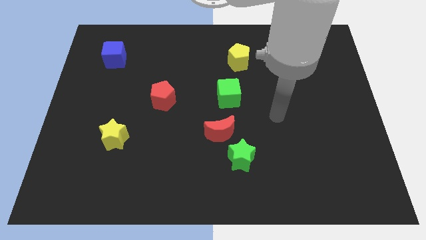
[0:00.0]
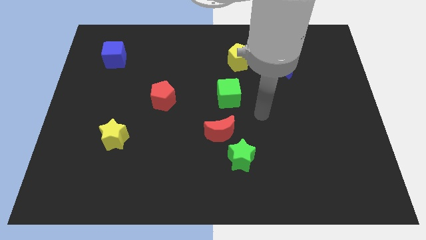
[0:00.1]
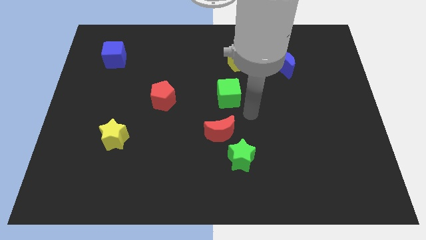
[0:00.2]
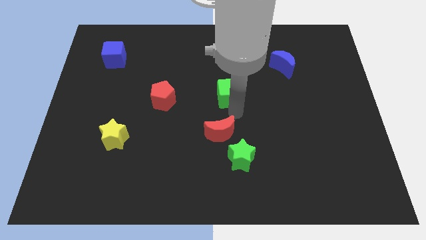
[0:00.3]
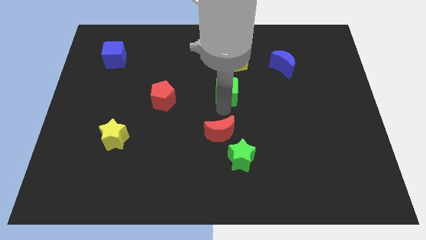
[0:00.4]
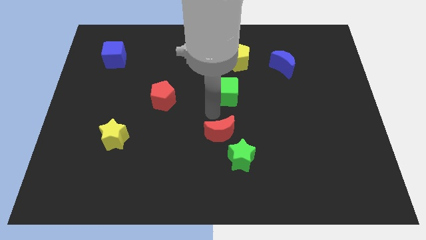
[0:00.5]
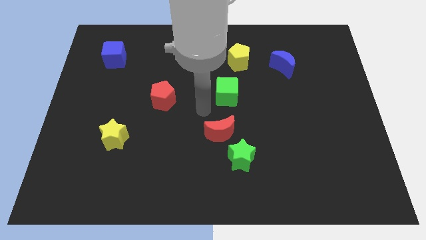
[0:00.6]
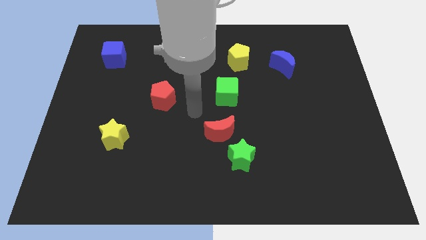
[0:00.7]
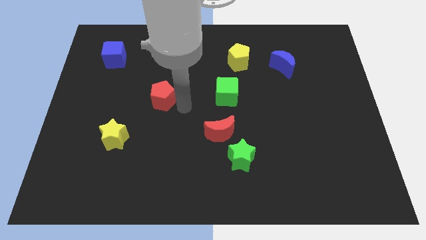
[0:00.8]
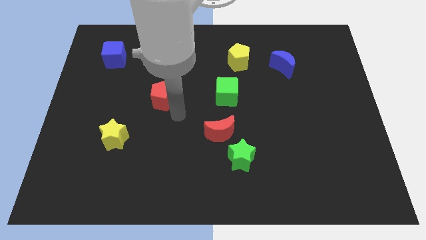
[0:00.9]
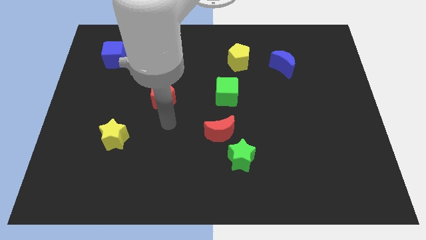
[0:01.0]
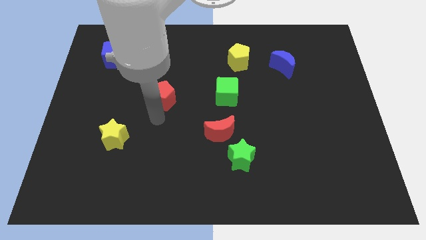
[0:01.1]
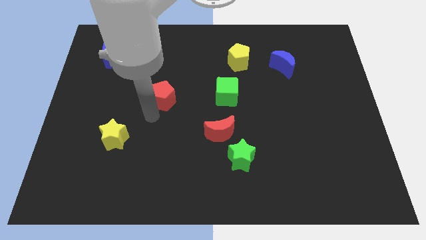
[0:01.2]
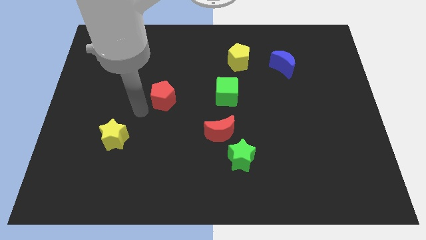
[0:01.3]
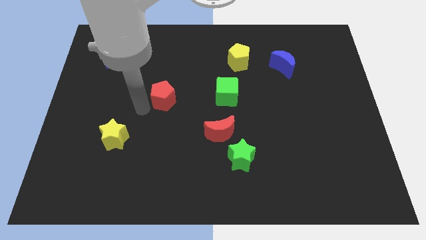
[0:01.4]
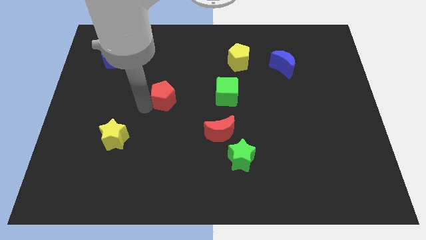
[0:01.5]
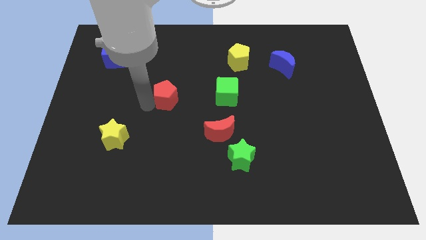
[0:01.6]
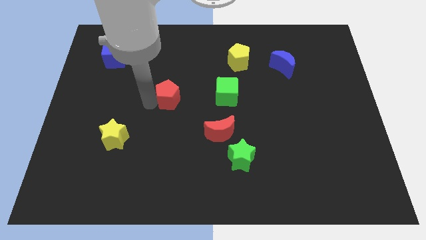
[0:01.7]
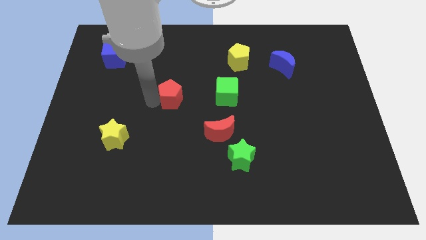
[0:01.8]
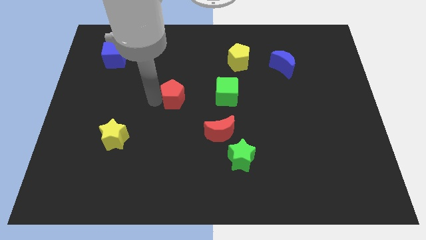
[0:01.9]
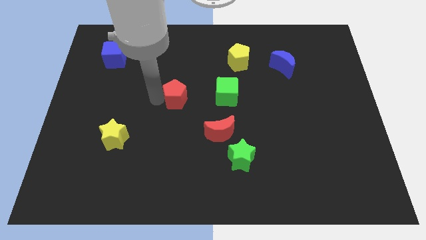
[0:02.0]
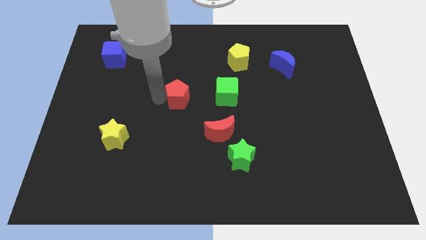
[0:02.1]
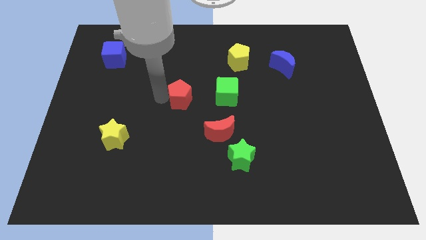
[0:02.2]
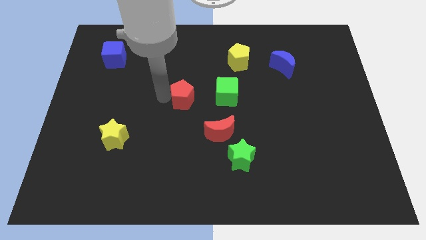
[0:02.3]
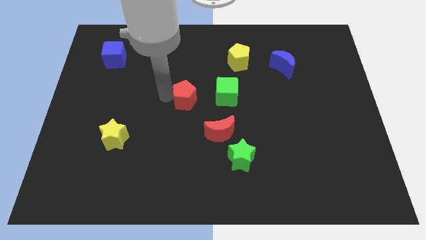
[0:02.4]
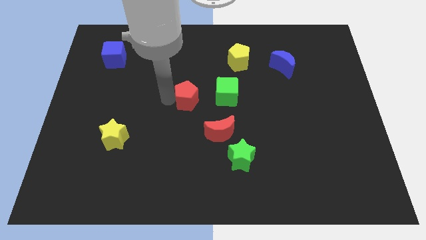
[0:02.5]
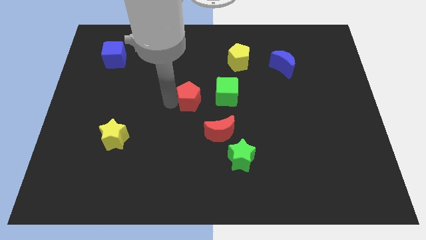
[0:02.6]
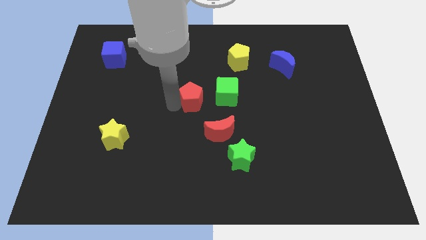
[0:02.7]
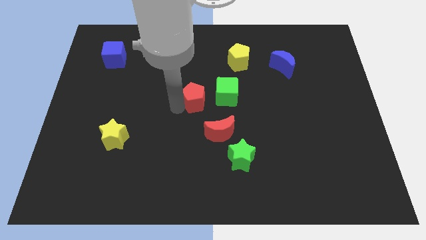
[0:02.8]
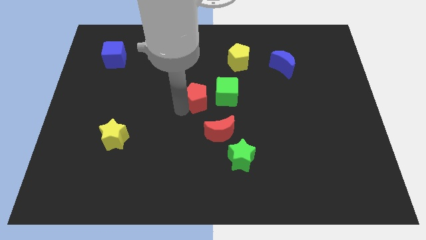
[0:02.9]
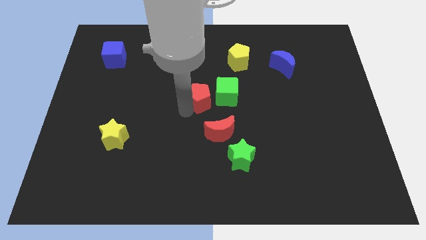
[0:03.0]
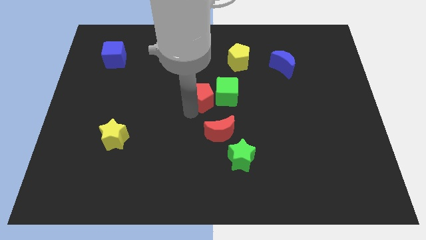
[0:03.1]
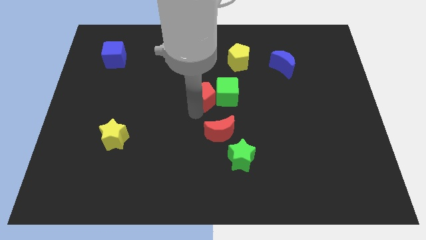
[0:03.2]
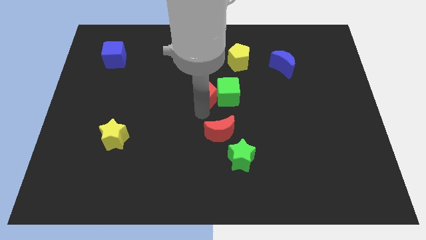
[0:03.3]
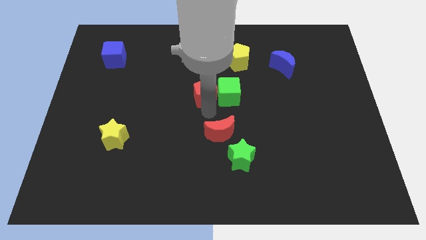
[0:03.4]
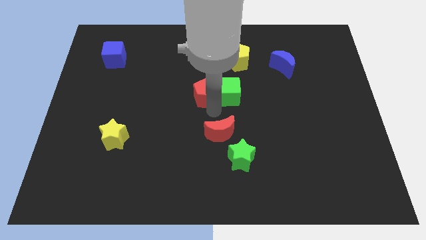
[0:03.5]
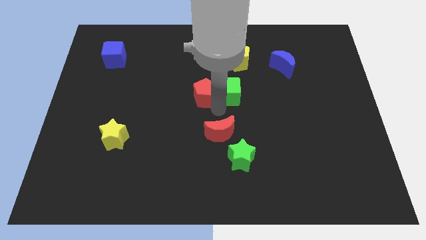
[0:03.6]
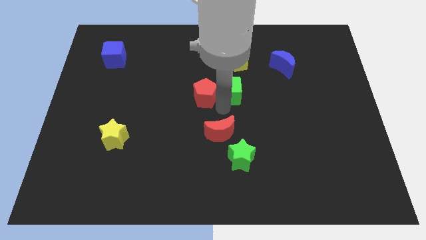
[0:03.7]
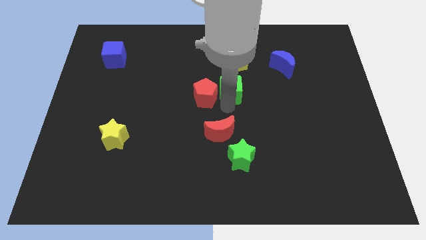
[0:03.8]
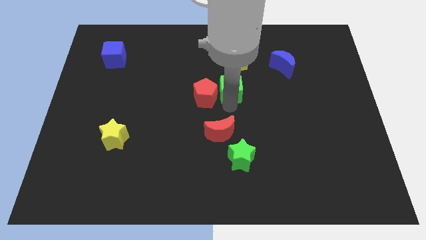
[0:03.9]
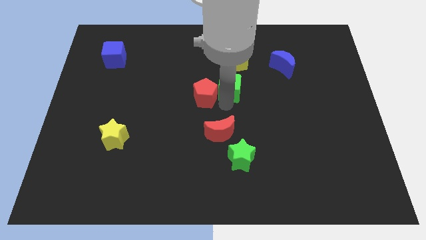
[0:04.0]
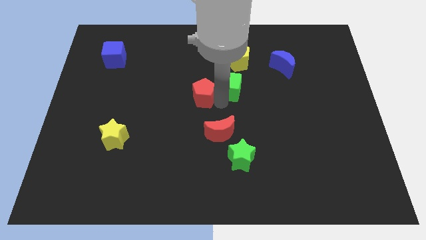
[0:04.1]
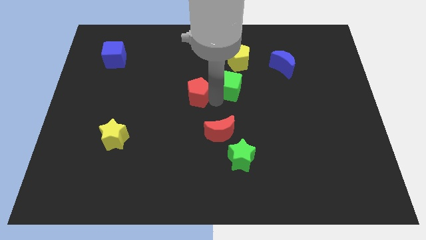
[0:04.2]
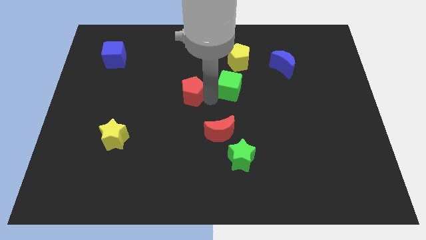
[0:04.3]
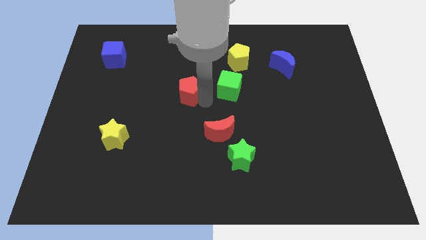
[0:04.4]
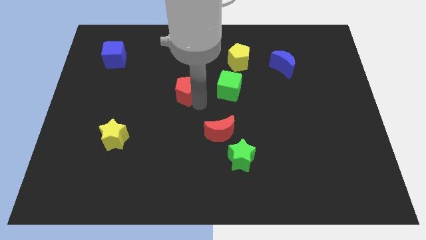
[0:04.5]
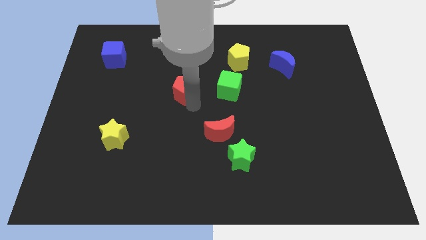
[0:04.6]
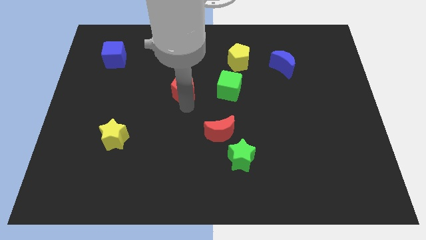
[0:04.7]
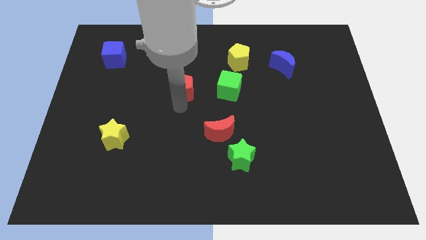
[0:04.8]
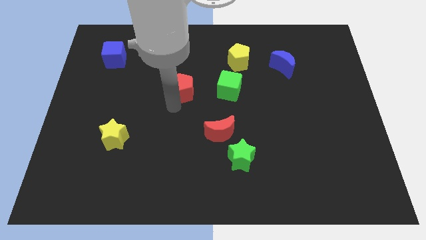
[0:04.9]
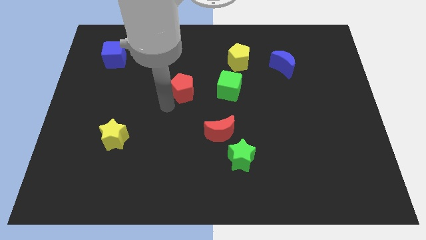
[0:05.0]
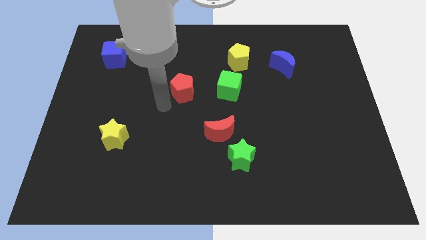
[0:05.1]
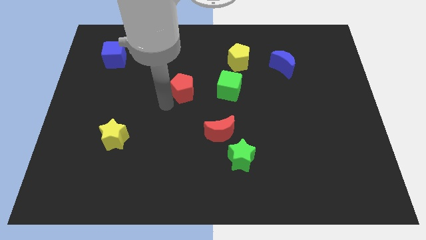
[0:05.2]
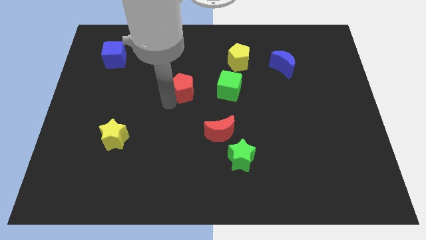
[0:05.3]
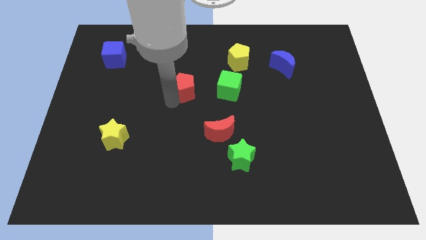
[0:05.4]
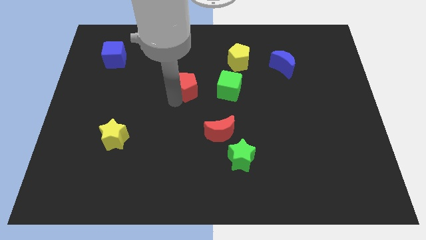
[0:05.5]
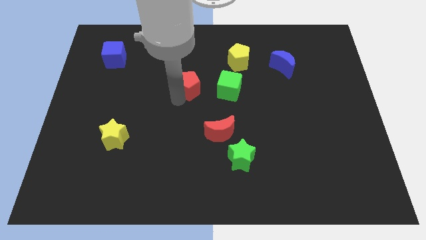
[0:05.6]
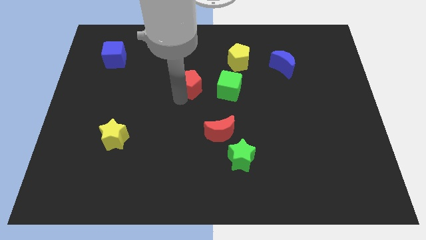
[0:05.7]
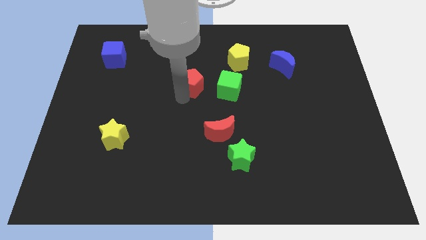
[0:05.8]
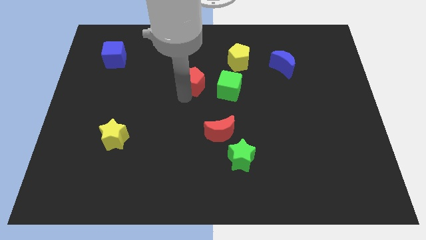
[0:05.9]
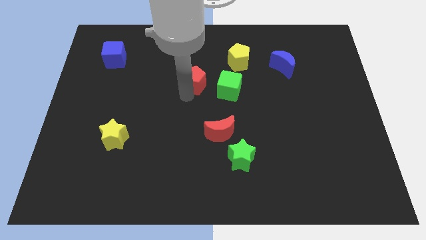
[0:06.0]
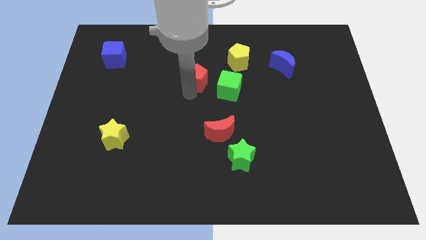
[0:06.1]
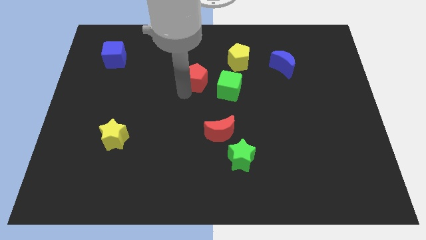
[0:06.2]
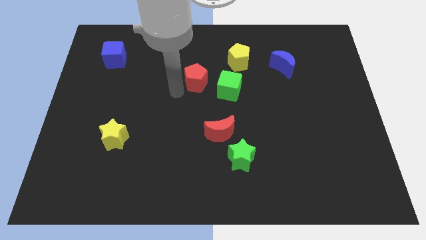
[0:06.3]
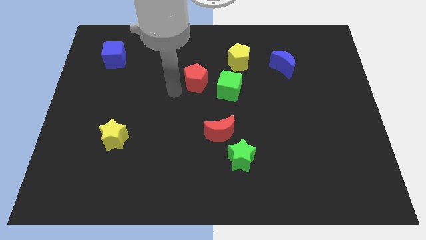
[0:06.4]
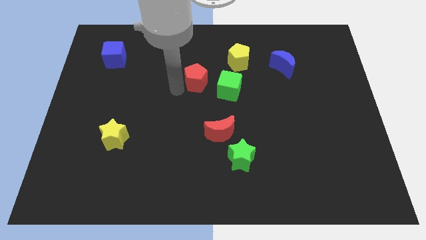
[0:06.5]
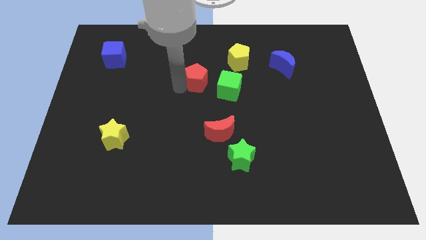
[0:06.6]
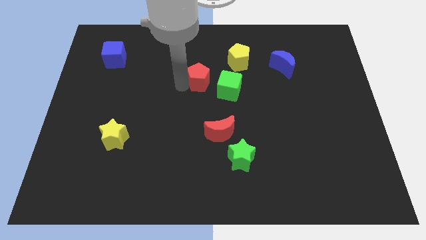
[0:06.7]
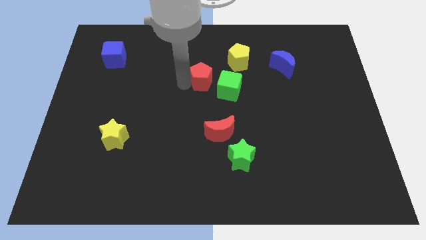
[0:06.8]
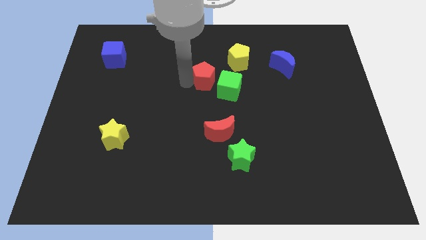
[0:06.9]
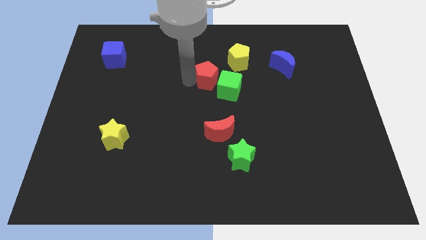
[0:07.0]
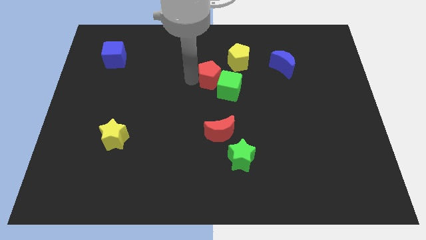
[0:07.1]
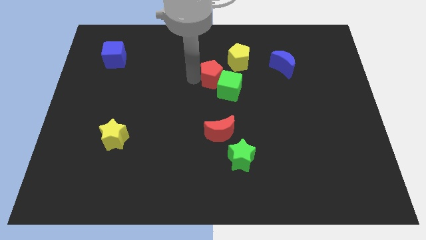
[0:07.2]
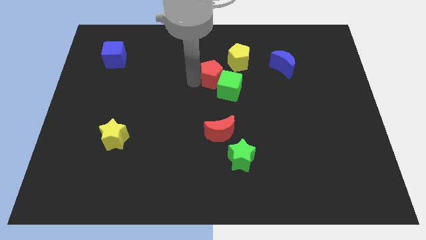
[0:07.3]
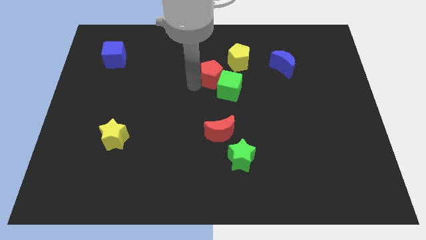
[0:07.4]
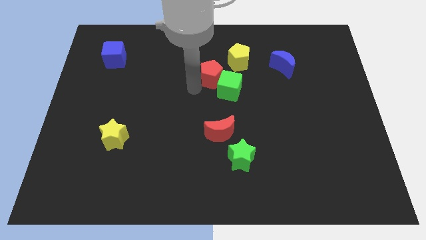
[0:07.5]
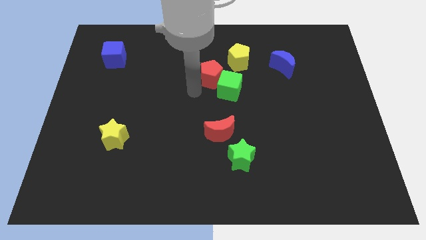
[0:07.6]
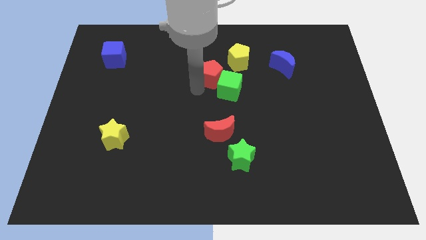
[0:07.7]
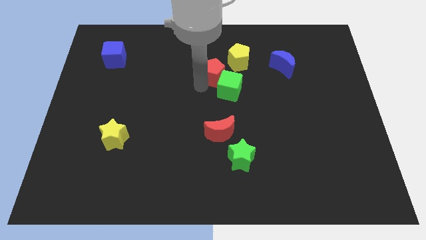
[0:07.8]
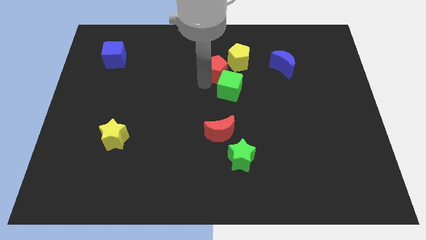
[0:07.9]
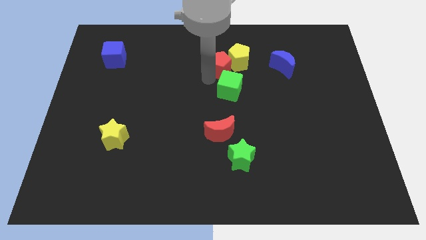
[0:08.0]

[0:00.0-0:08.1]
move the red pentagon towards the yellow pentagon
